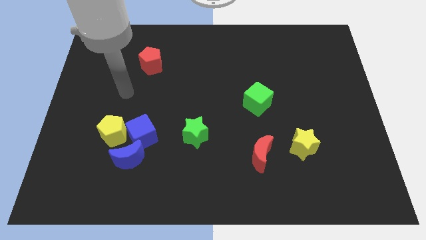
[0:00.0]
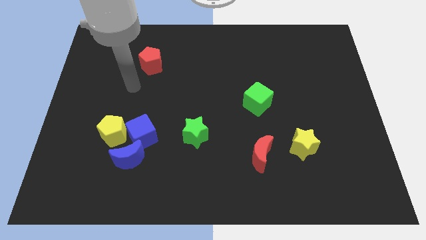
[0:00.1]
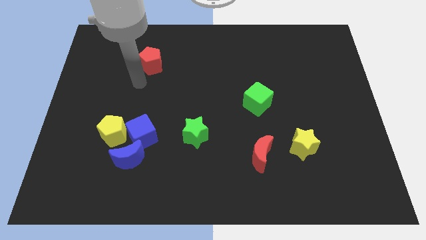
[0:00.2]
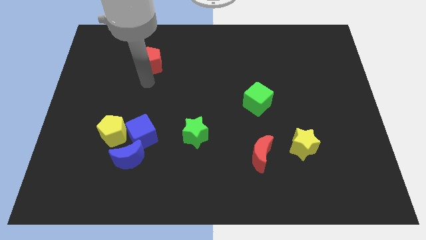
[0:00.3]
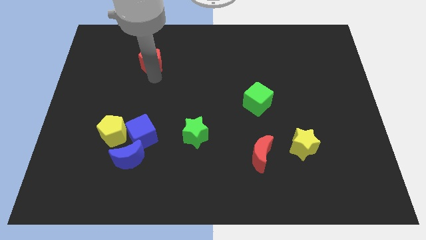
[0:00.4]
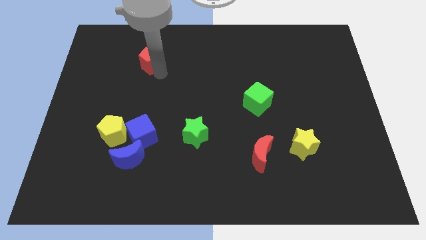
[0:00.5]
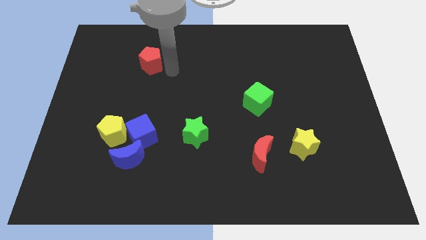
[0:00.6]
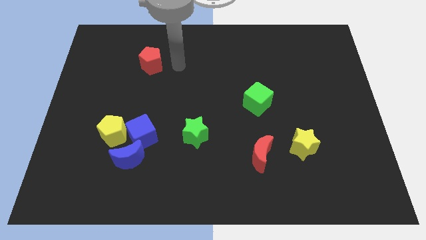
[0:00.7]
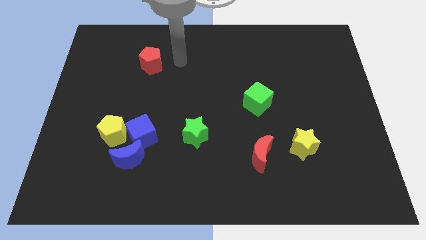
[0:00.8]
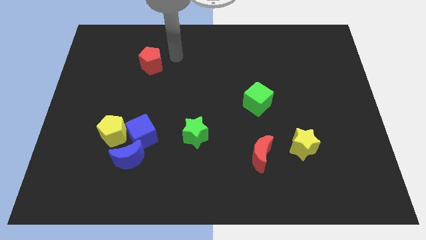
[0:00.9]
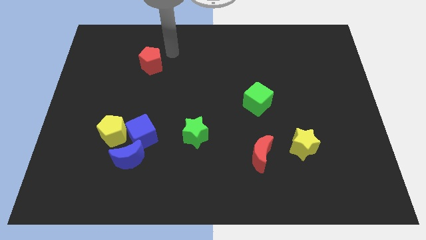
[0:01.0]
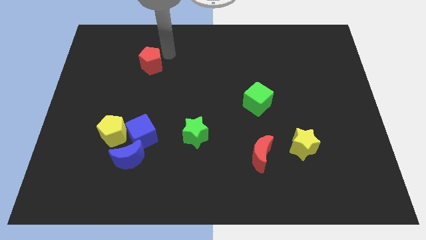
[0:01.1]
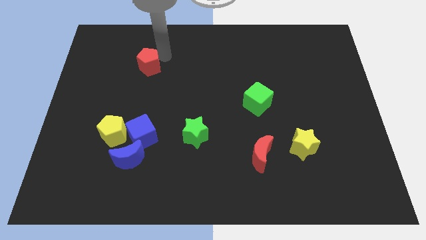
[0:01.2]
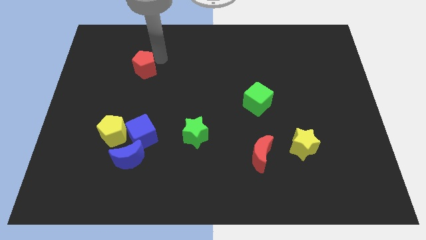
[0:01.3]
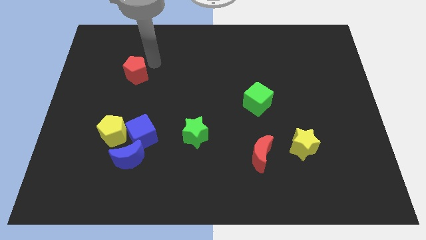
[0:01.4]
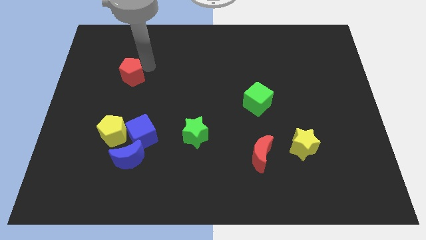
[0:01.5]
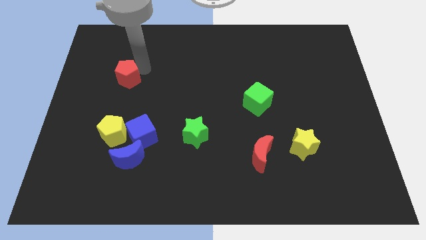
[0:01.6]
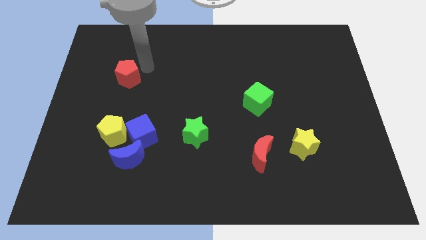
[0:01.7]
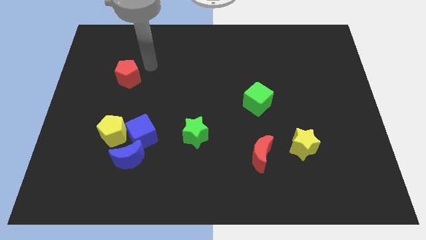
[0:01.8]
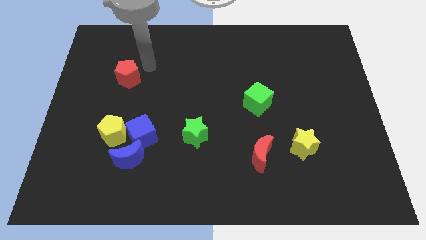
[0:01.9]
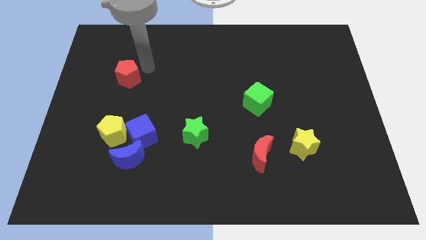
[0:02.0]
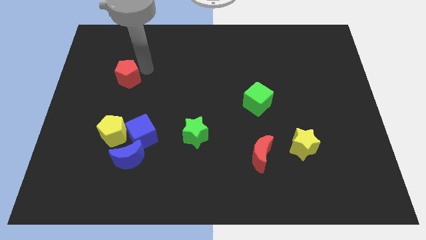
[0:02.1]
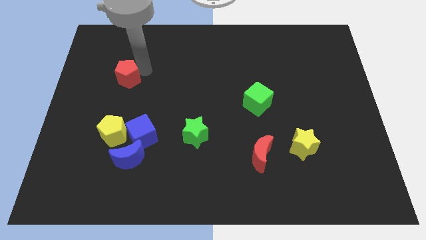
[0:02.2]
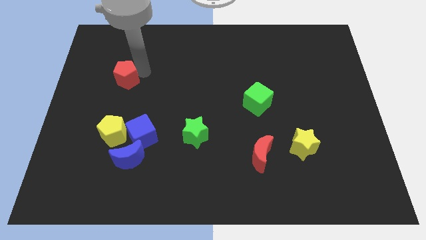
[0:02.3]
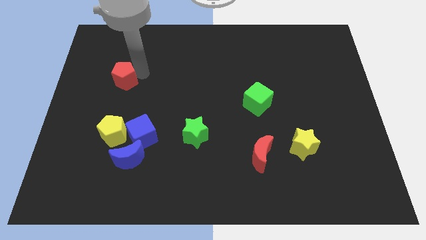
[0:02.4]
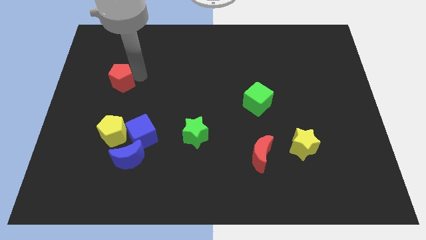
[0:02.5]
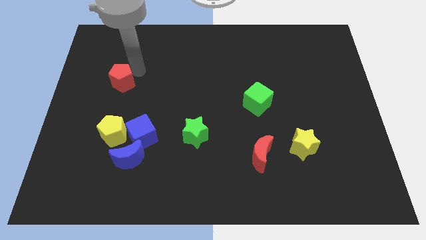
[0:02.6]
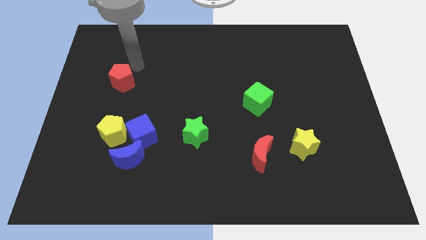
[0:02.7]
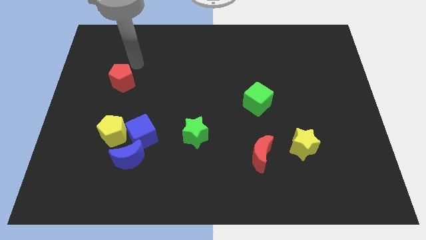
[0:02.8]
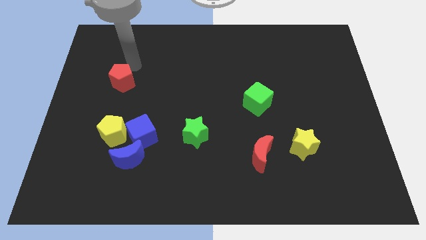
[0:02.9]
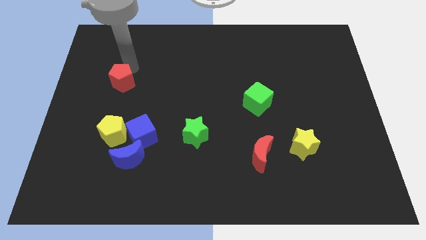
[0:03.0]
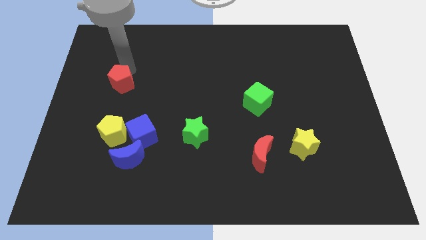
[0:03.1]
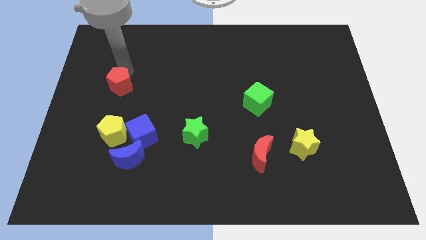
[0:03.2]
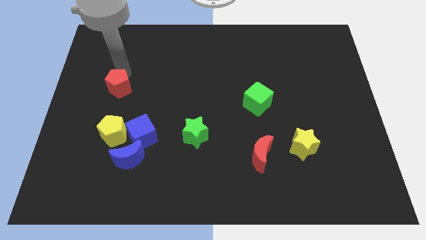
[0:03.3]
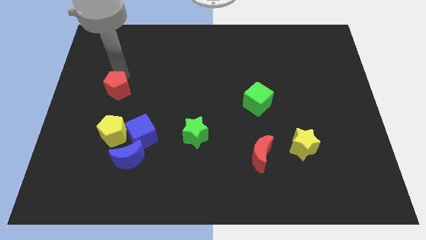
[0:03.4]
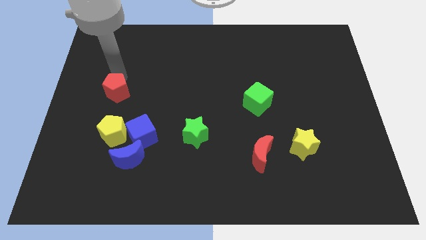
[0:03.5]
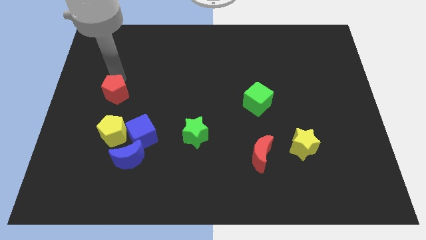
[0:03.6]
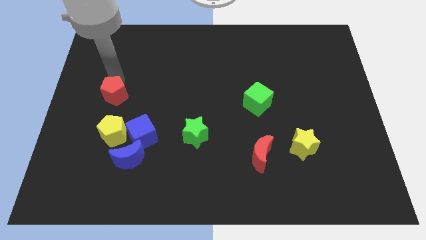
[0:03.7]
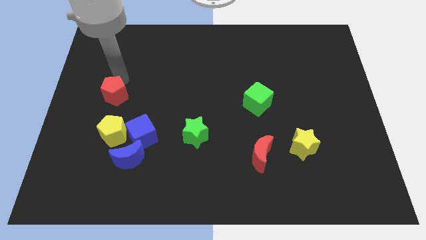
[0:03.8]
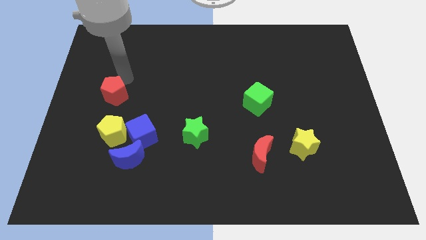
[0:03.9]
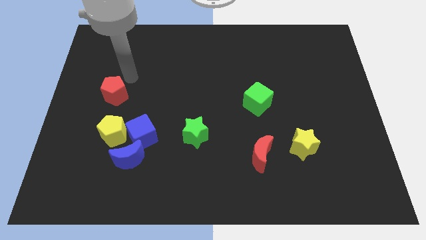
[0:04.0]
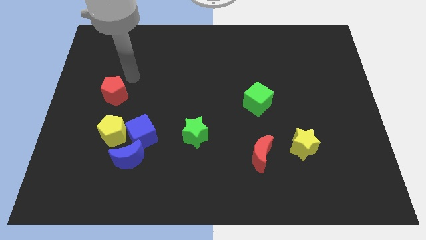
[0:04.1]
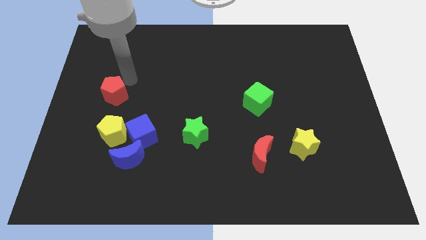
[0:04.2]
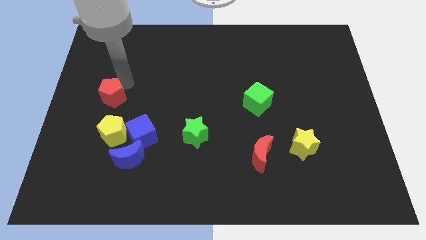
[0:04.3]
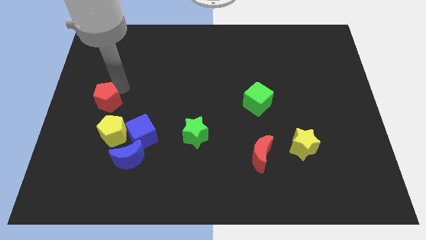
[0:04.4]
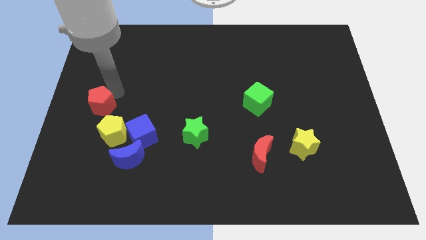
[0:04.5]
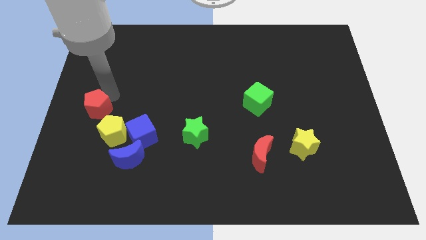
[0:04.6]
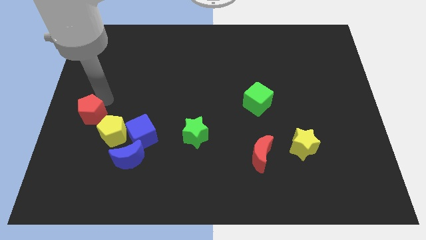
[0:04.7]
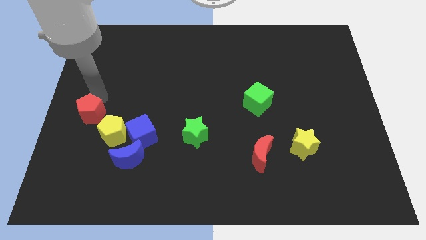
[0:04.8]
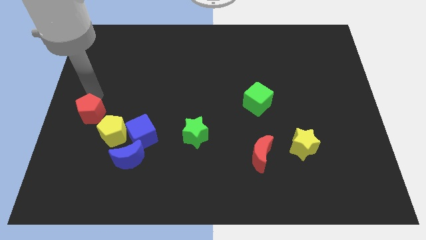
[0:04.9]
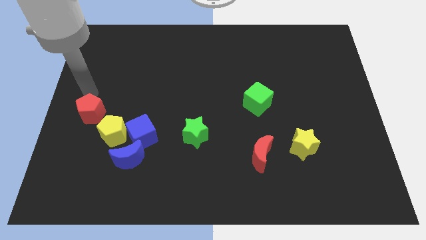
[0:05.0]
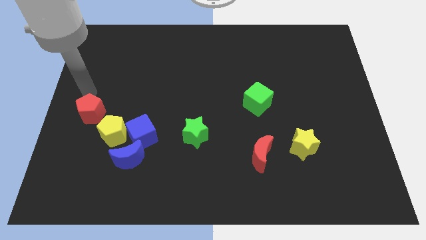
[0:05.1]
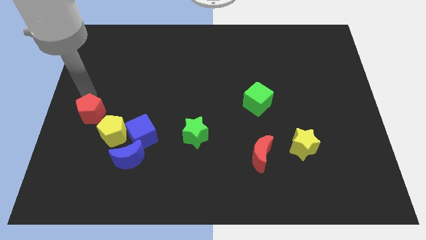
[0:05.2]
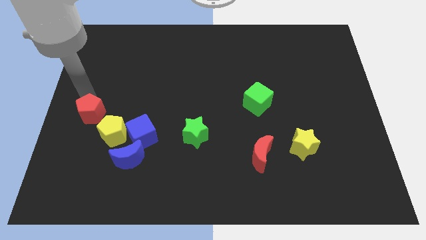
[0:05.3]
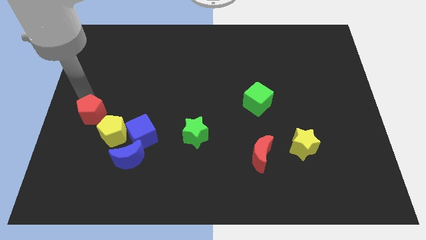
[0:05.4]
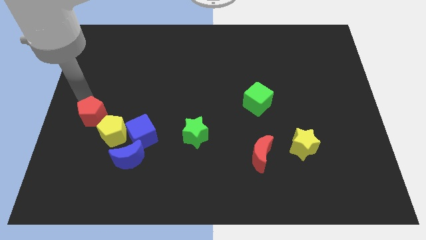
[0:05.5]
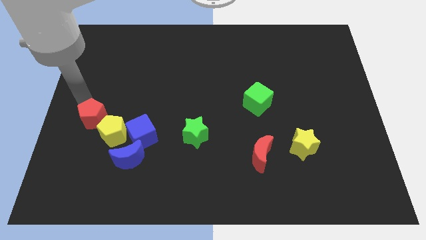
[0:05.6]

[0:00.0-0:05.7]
put the red pentagon just left of the blue cube

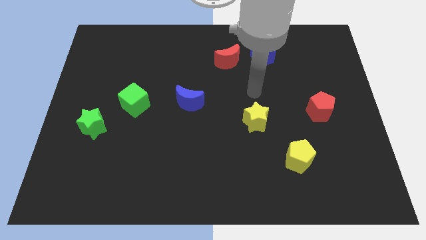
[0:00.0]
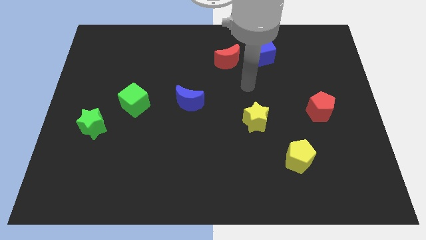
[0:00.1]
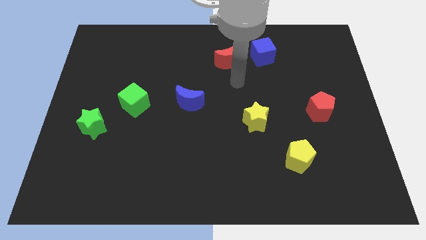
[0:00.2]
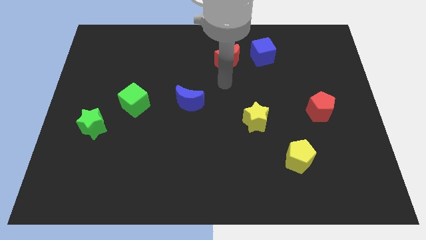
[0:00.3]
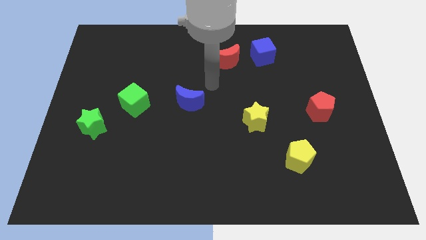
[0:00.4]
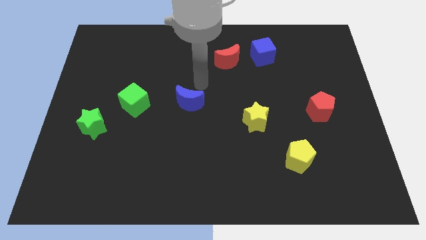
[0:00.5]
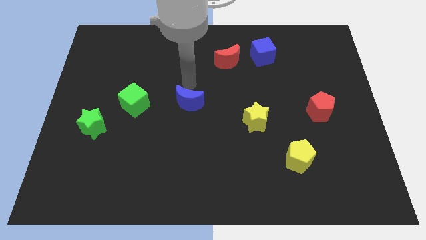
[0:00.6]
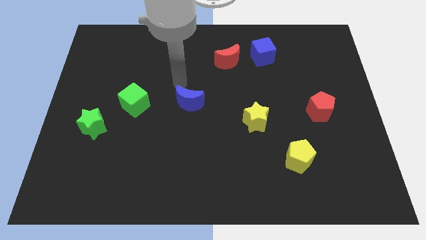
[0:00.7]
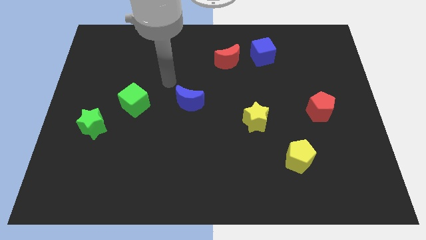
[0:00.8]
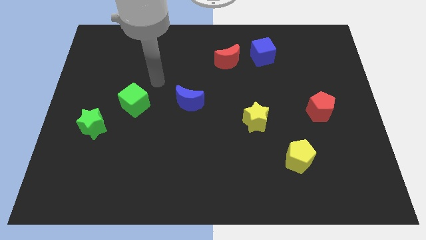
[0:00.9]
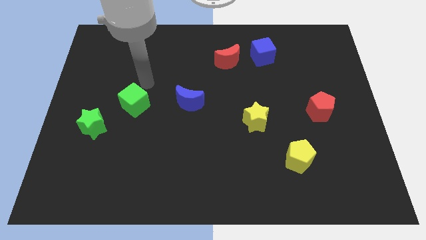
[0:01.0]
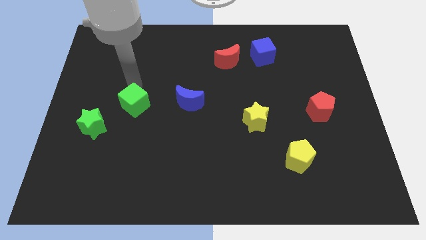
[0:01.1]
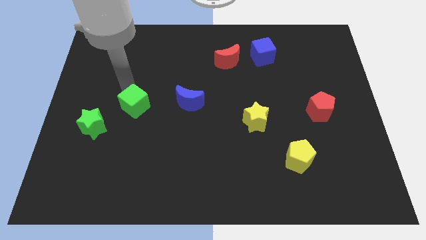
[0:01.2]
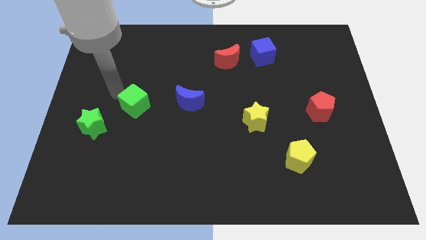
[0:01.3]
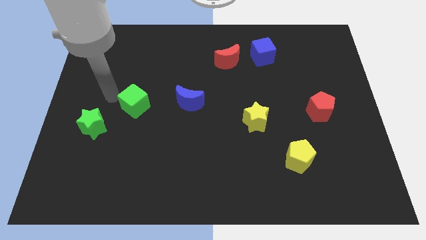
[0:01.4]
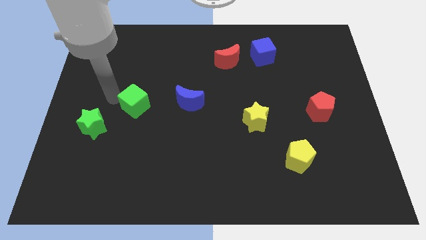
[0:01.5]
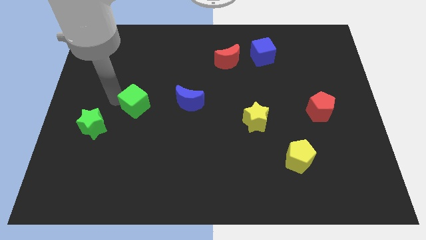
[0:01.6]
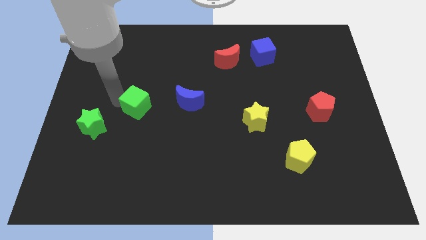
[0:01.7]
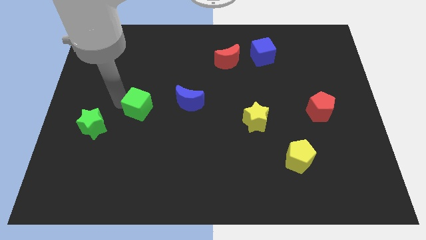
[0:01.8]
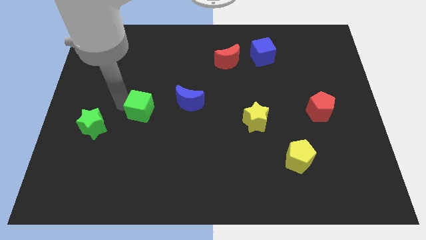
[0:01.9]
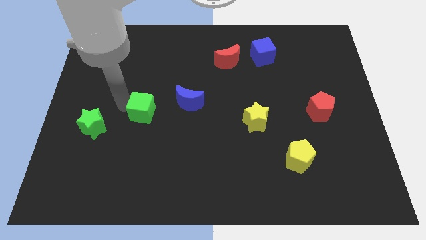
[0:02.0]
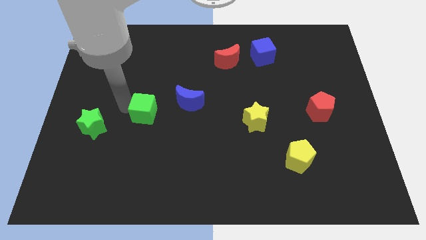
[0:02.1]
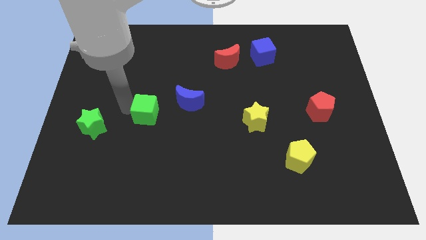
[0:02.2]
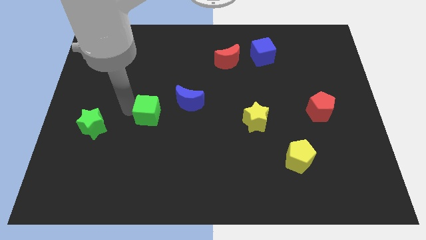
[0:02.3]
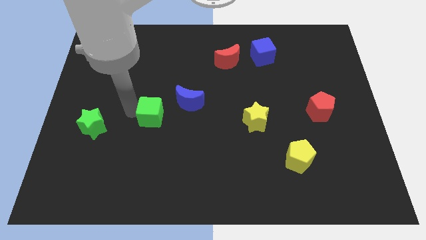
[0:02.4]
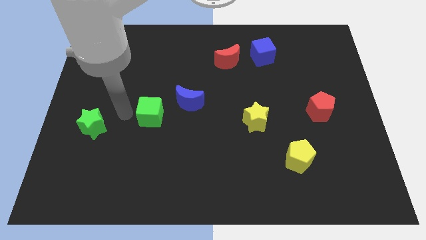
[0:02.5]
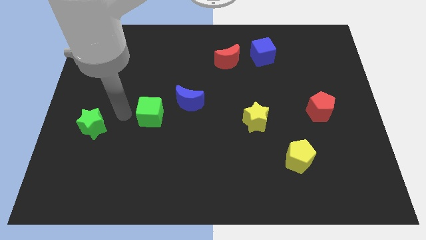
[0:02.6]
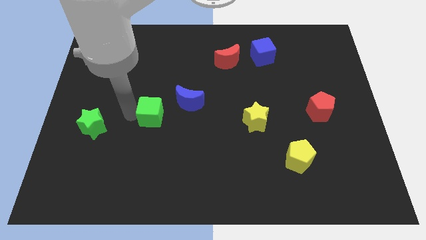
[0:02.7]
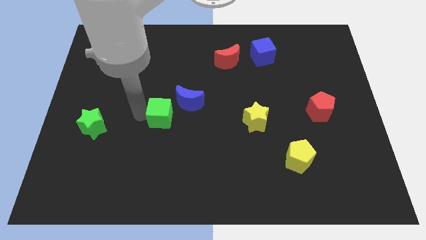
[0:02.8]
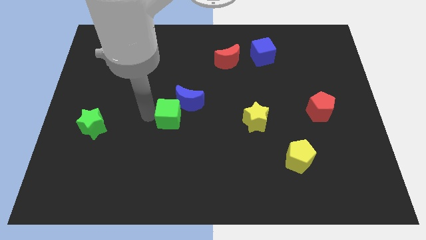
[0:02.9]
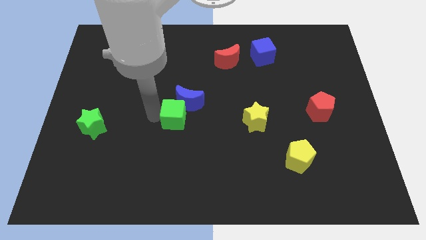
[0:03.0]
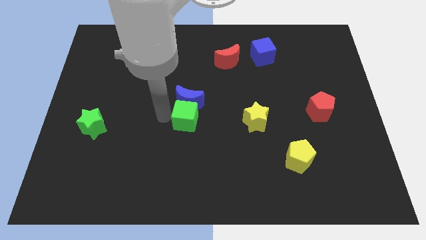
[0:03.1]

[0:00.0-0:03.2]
push the green cube to the left of the yellow star
